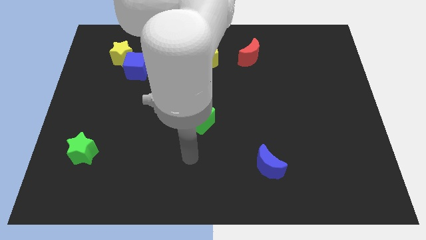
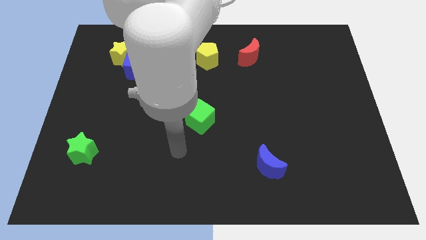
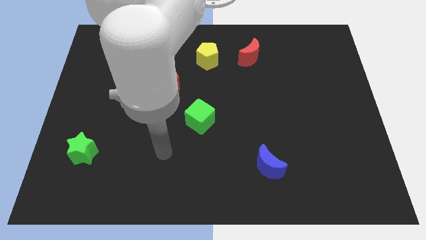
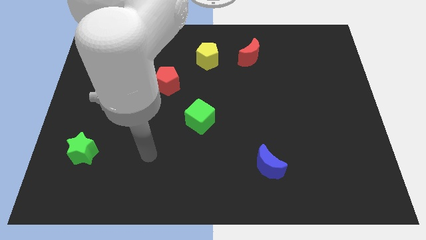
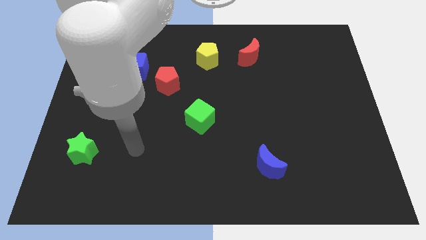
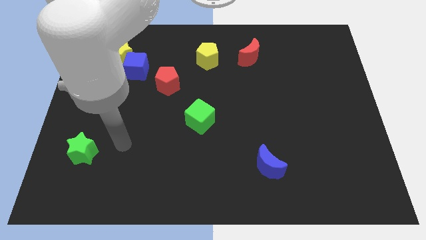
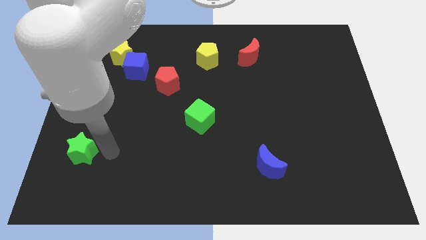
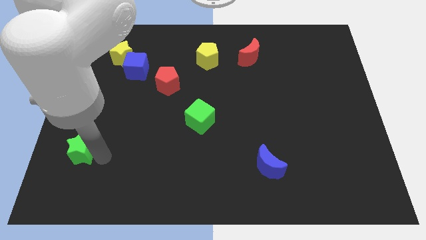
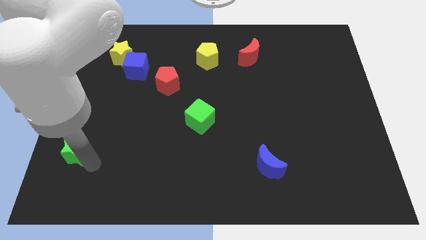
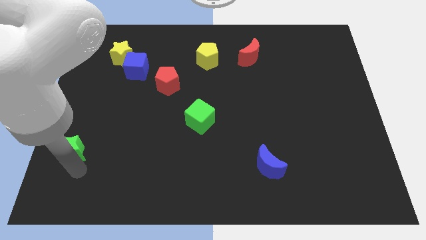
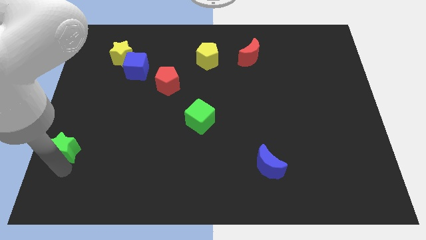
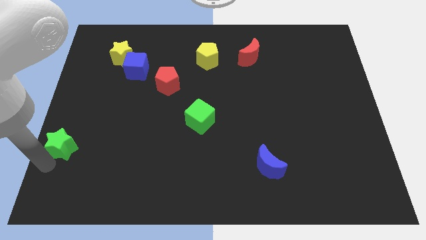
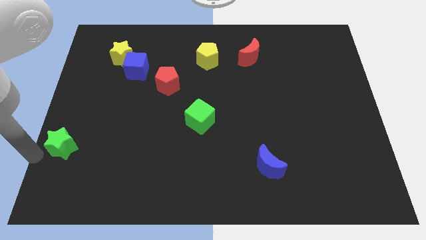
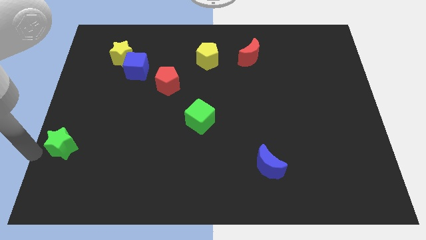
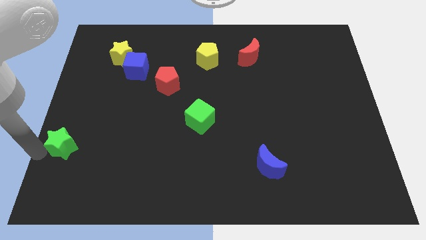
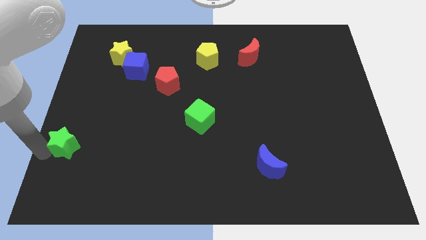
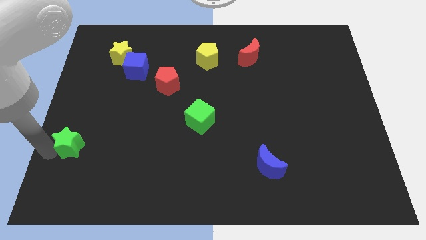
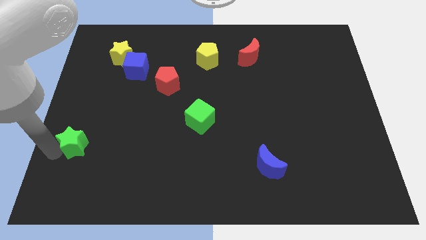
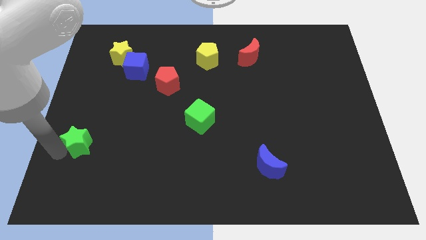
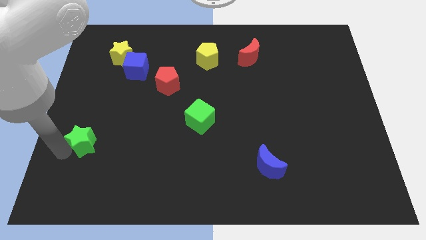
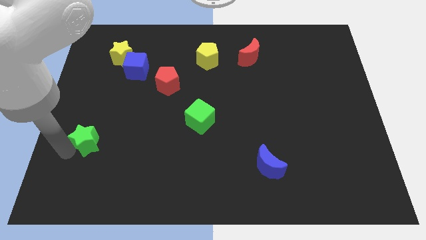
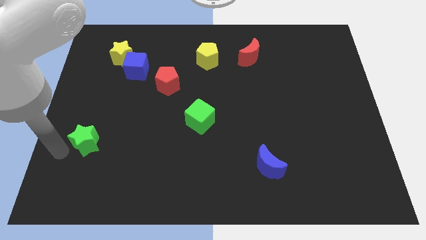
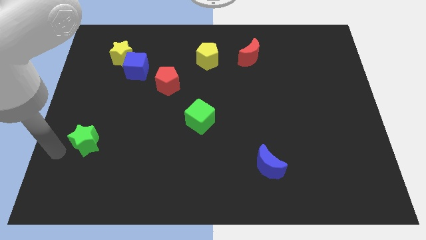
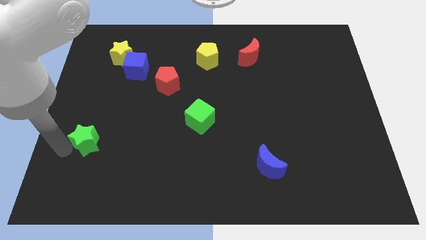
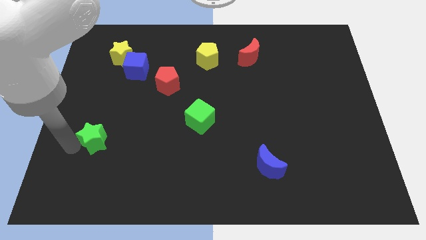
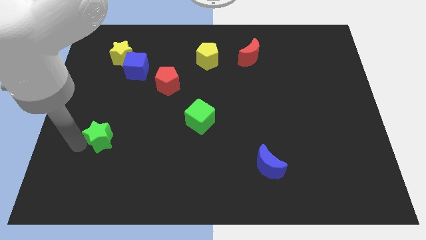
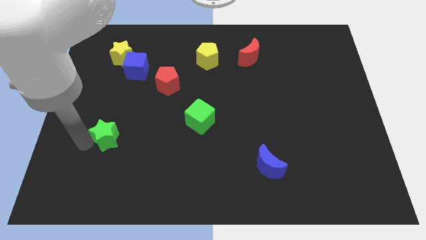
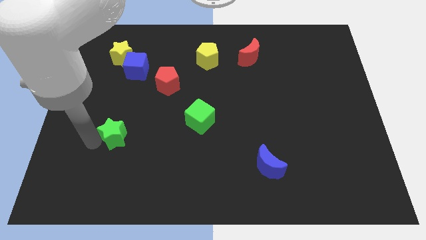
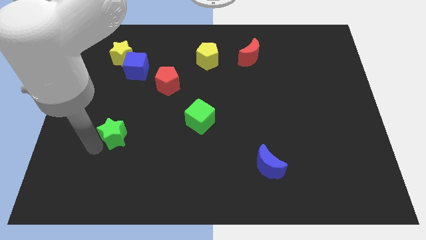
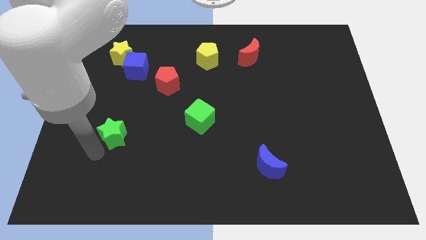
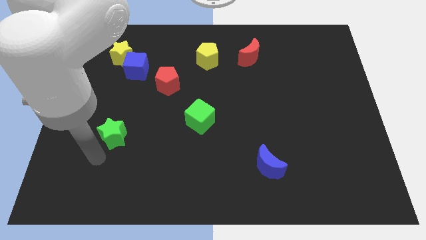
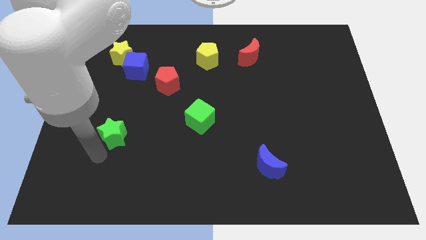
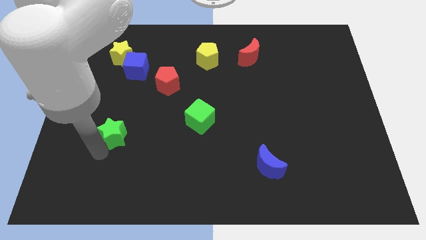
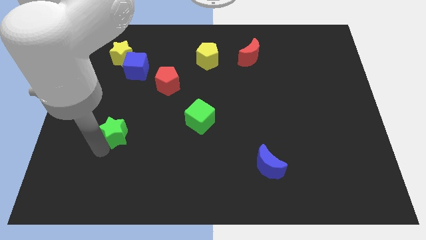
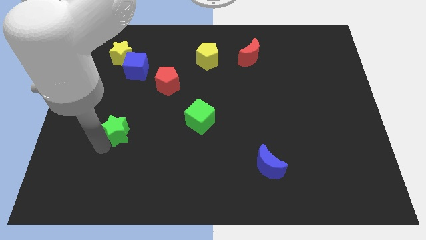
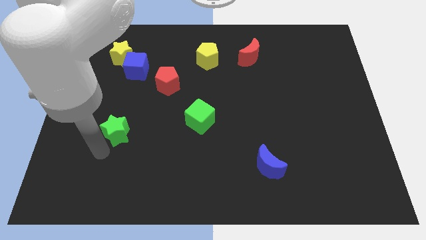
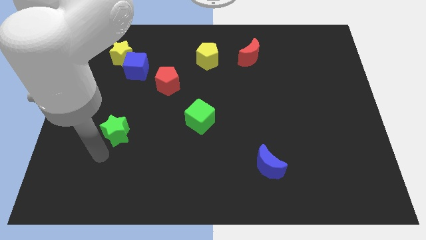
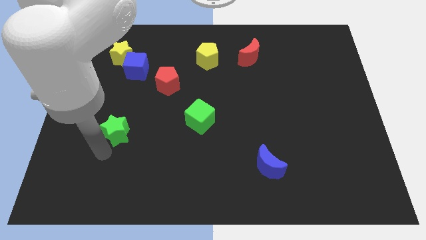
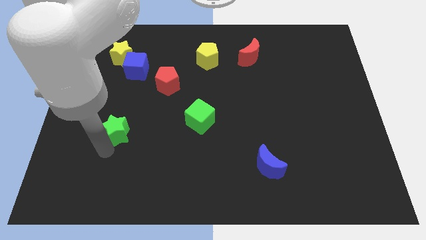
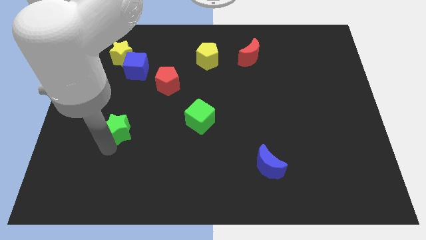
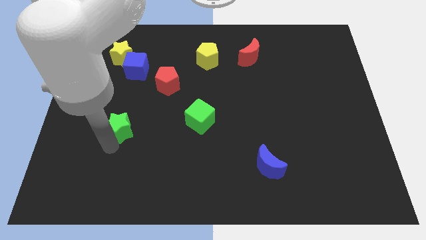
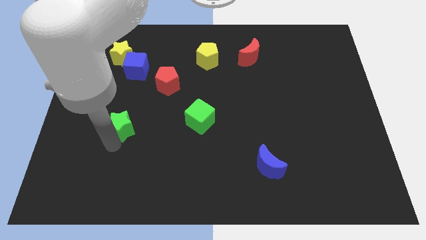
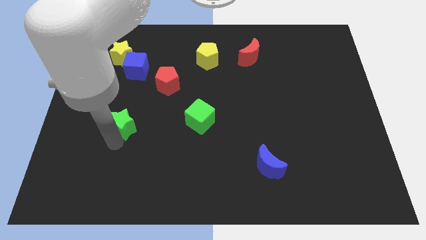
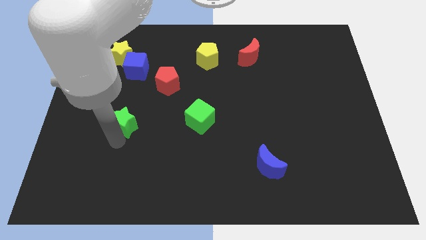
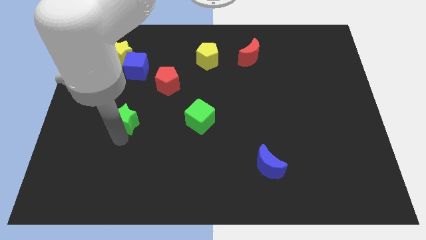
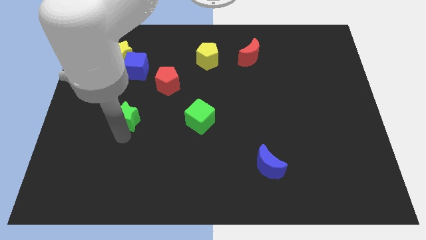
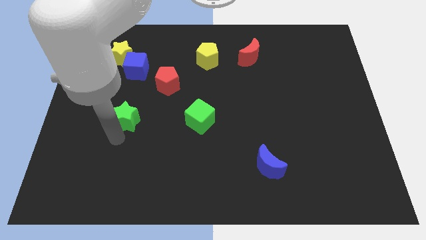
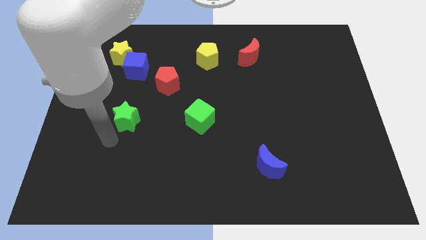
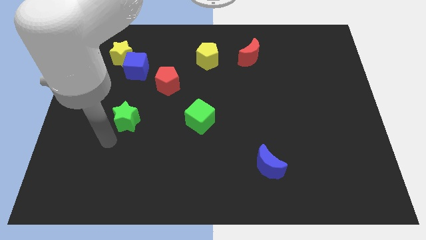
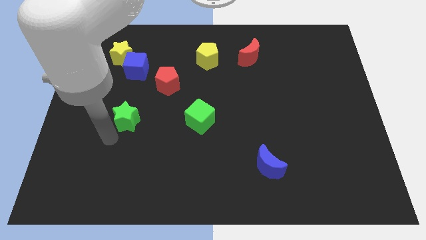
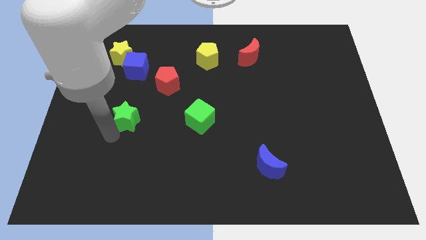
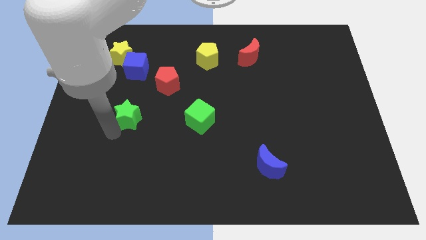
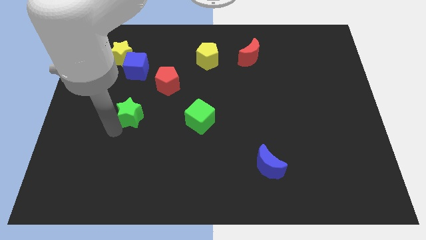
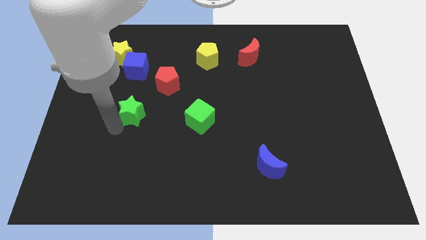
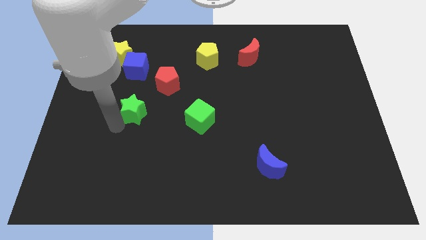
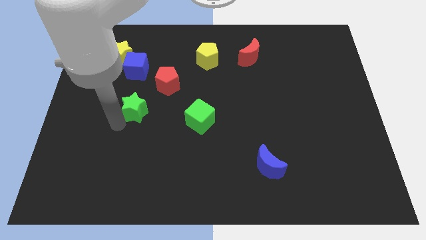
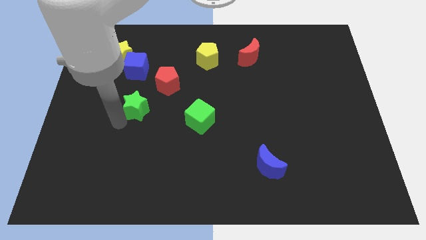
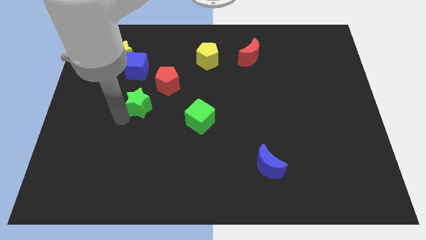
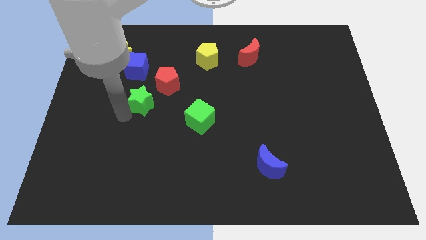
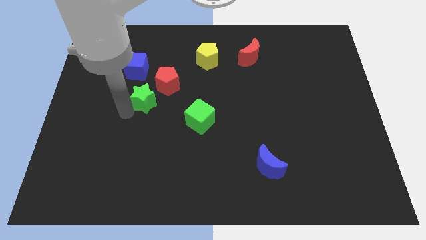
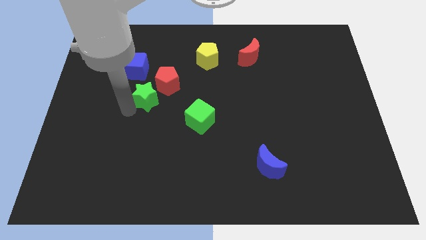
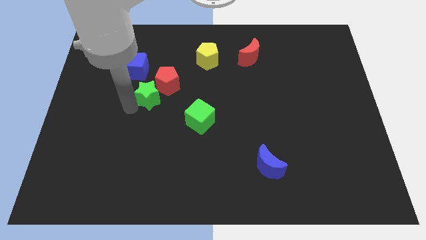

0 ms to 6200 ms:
push the green star towards the red pentagon

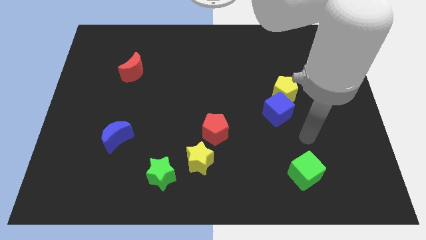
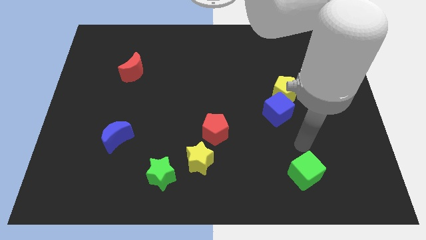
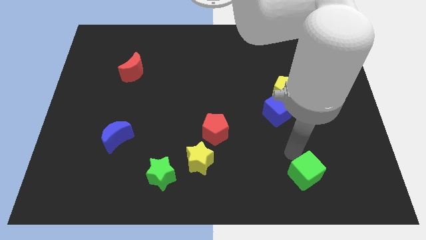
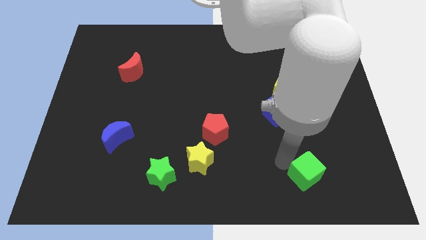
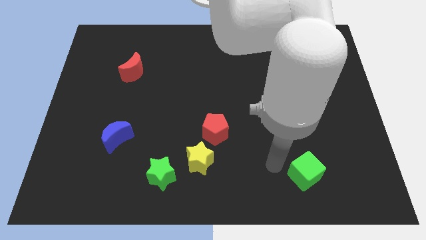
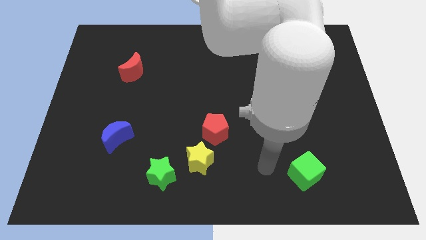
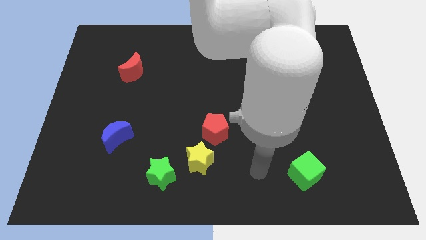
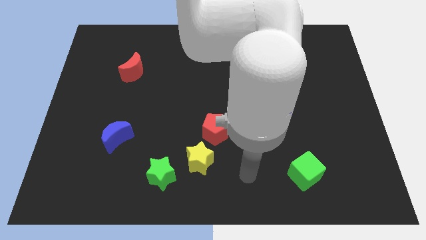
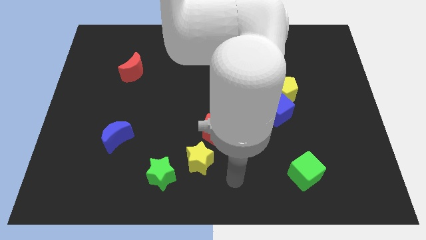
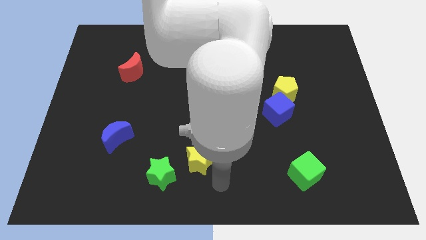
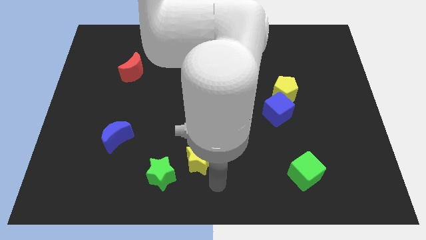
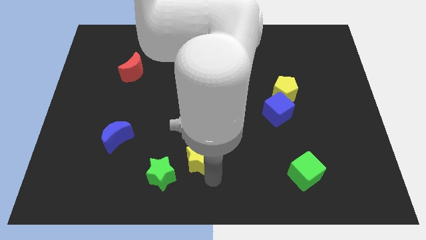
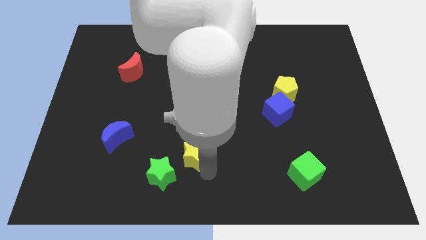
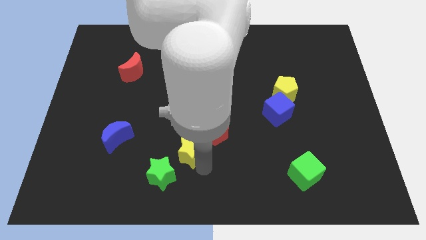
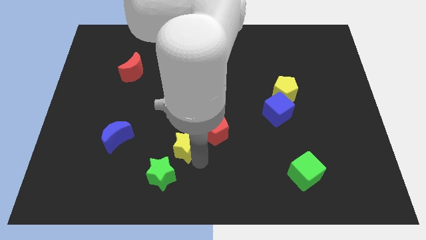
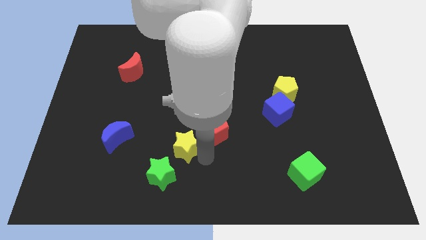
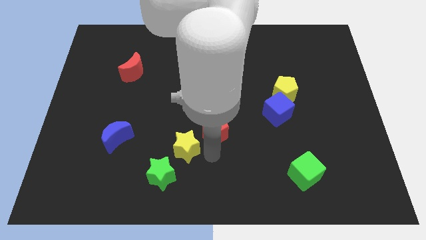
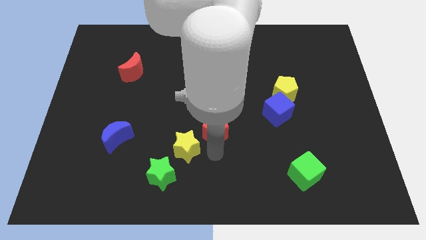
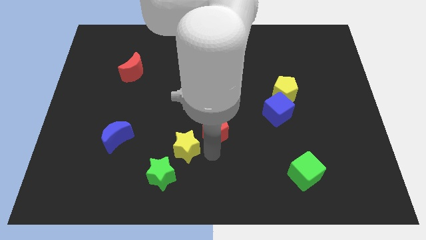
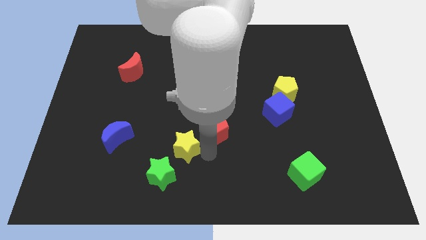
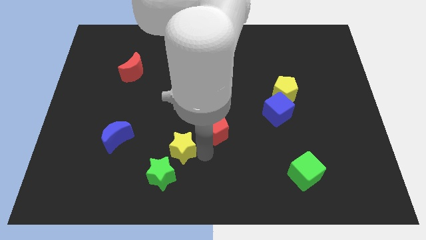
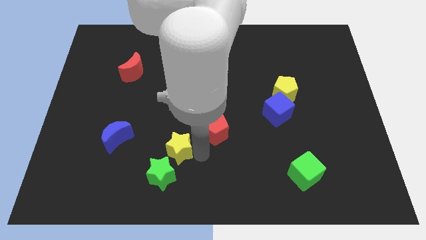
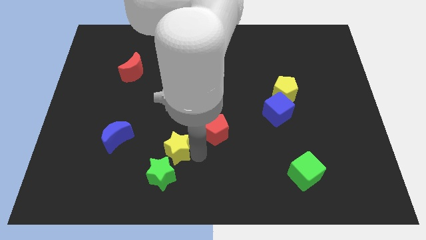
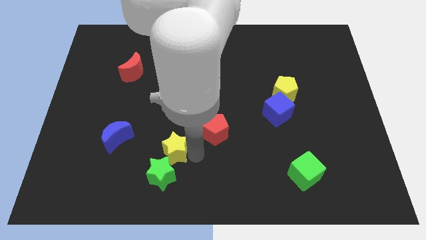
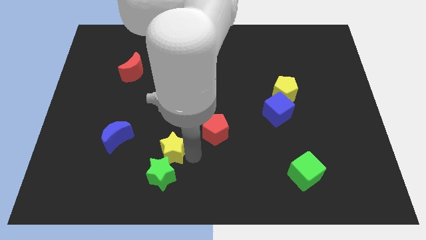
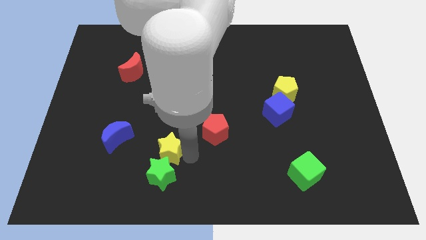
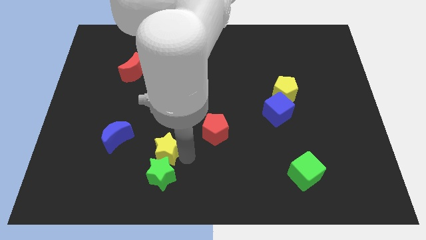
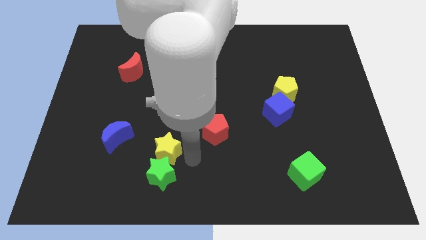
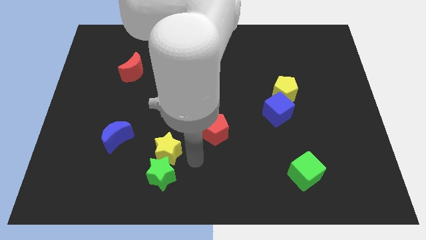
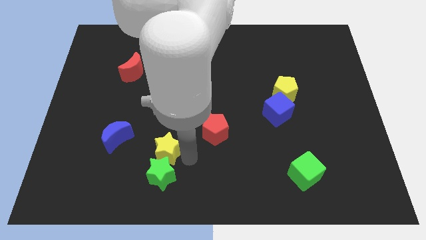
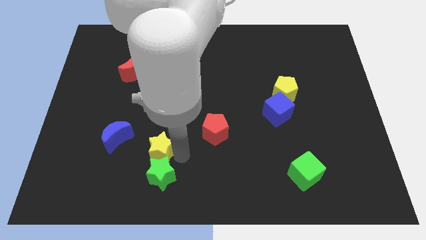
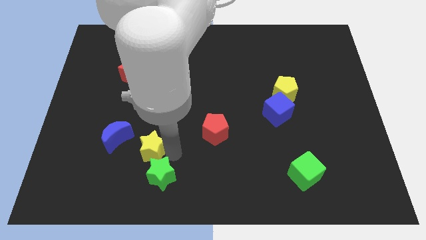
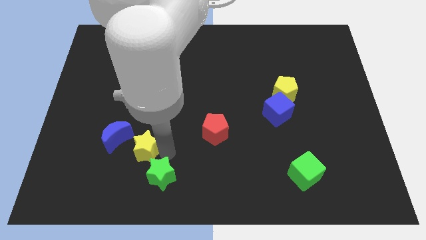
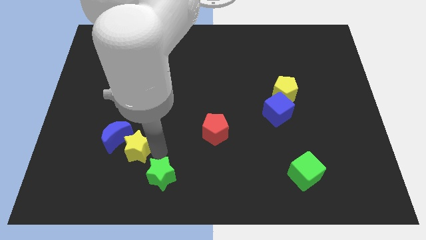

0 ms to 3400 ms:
put the yellow star towards the blue moon
